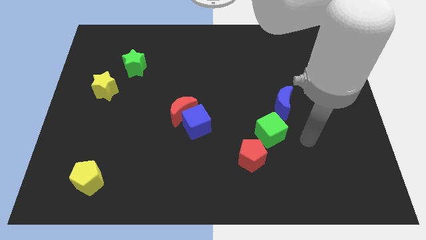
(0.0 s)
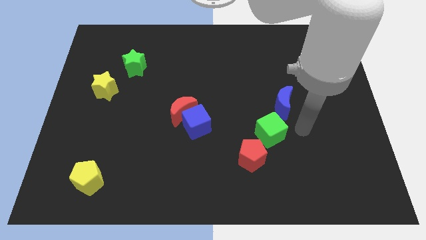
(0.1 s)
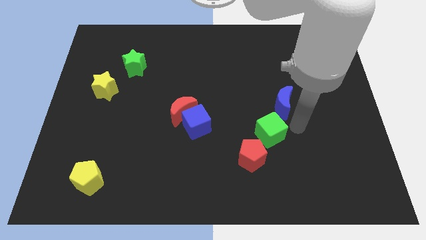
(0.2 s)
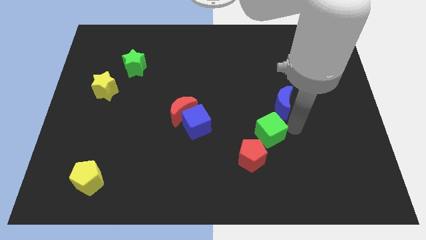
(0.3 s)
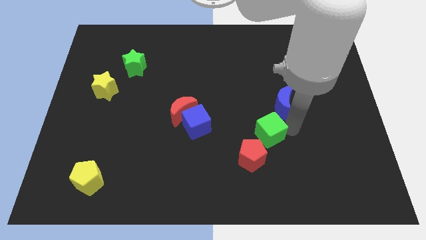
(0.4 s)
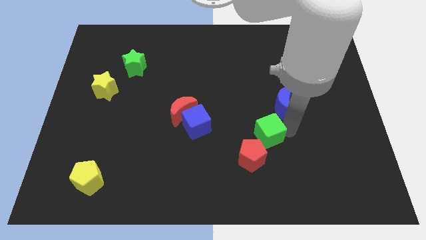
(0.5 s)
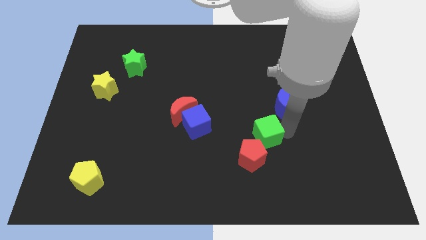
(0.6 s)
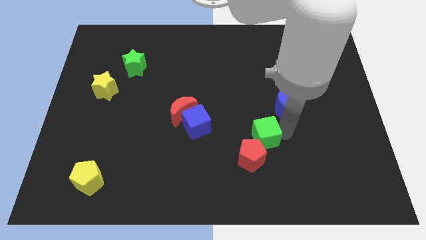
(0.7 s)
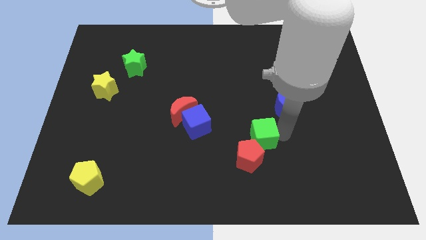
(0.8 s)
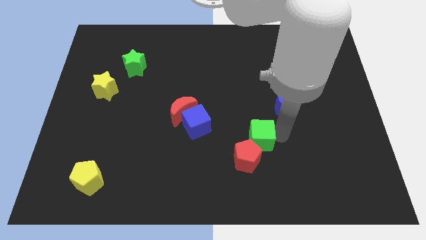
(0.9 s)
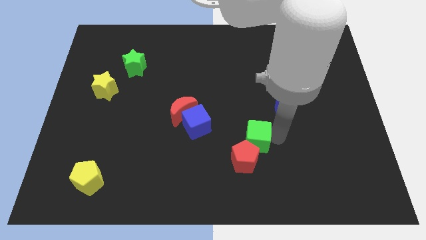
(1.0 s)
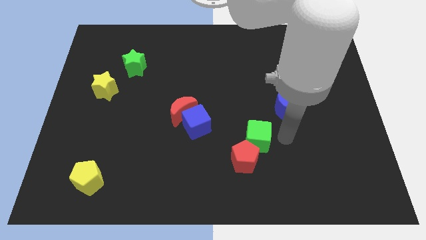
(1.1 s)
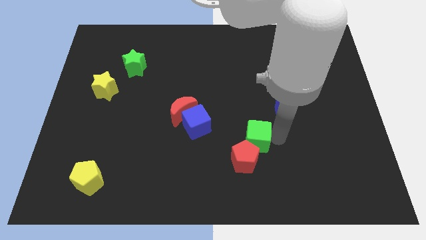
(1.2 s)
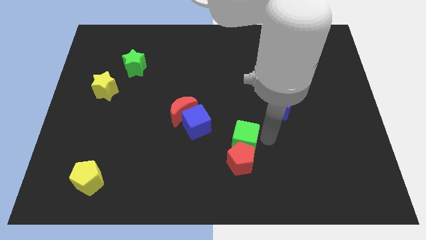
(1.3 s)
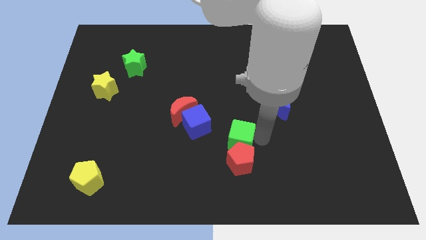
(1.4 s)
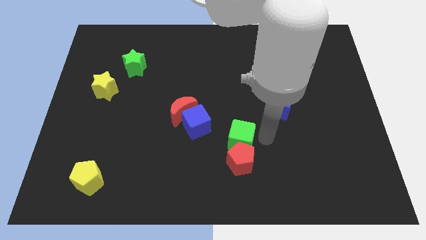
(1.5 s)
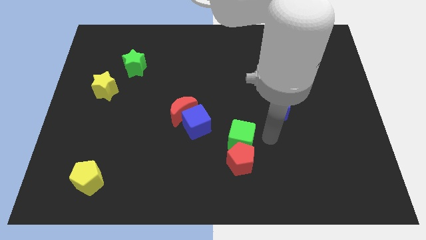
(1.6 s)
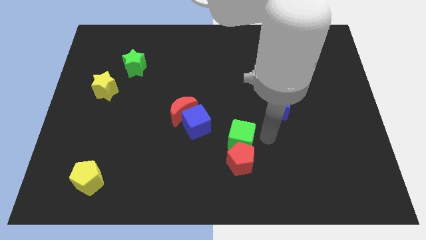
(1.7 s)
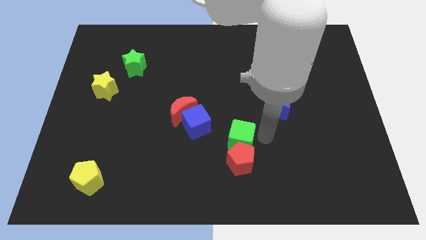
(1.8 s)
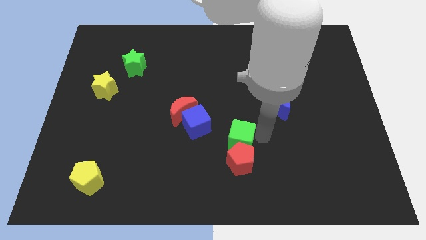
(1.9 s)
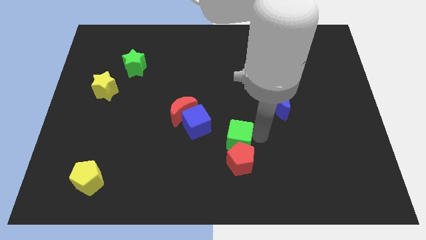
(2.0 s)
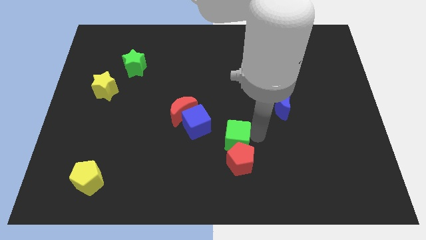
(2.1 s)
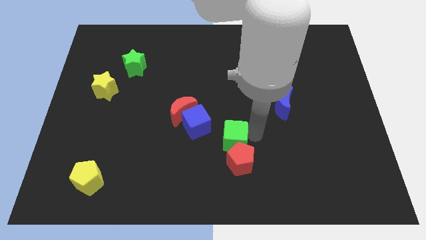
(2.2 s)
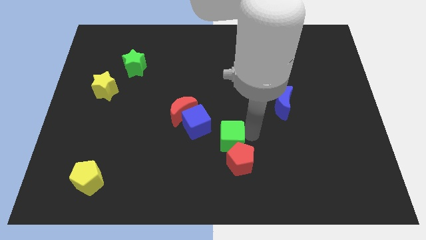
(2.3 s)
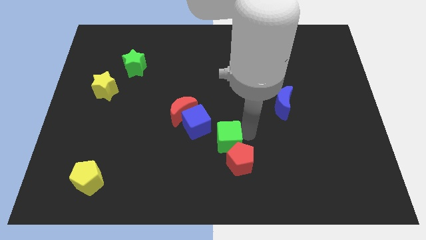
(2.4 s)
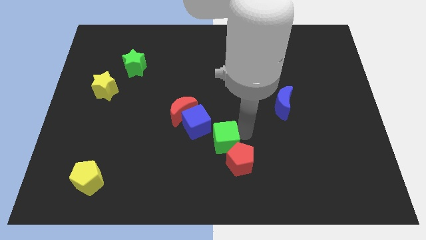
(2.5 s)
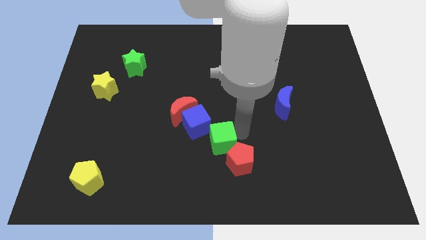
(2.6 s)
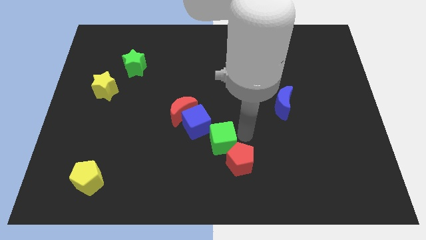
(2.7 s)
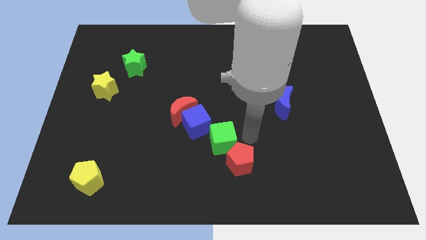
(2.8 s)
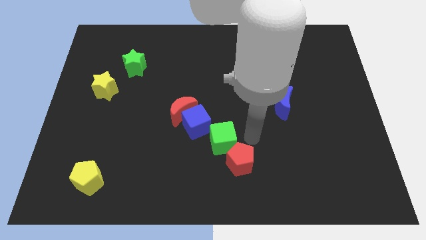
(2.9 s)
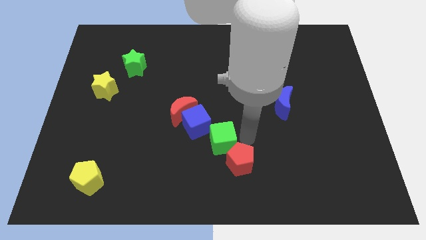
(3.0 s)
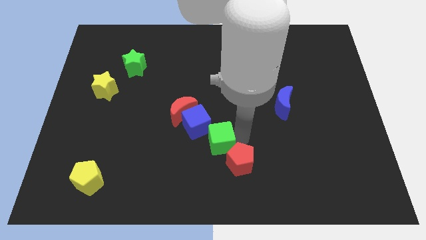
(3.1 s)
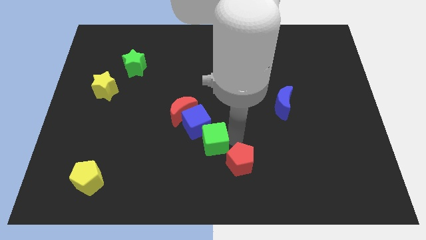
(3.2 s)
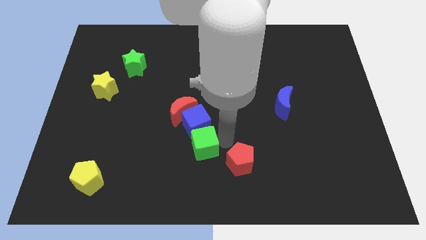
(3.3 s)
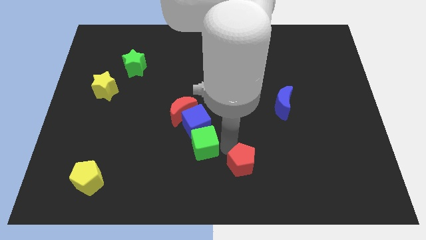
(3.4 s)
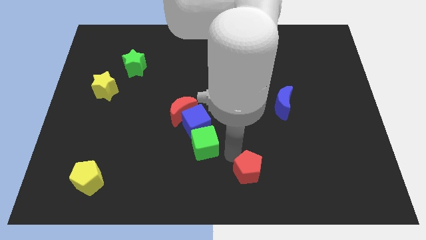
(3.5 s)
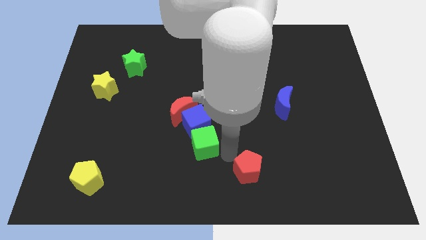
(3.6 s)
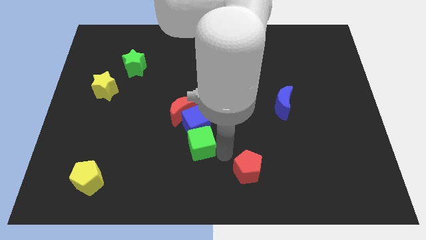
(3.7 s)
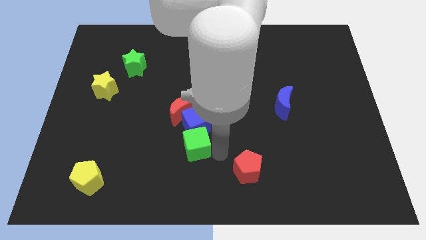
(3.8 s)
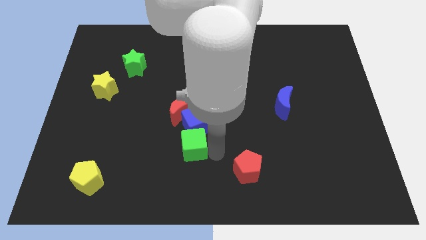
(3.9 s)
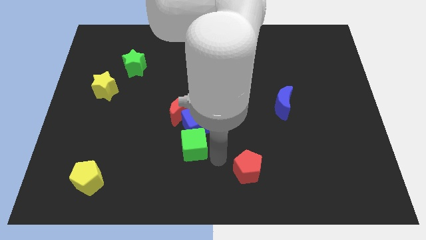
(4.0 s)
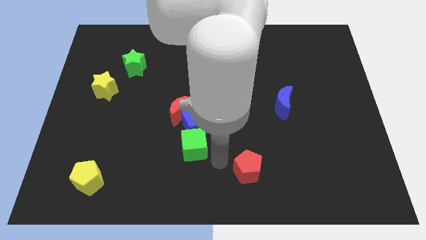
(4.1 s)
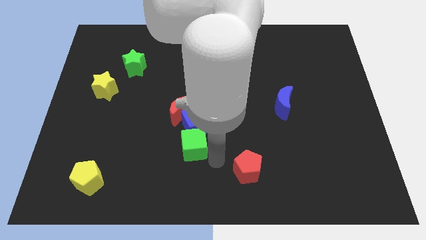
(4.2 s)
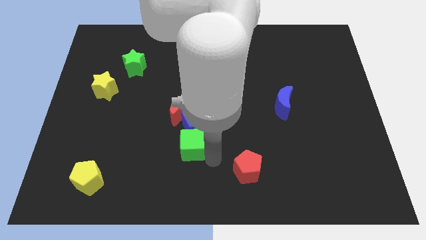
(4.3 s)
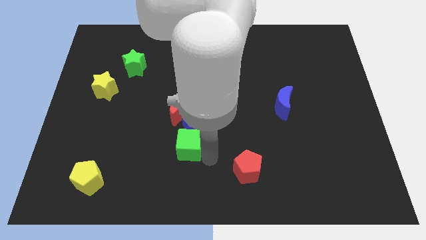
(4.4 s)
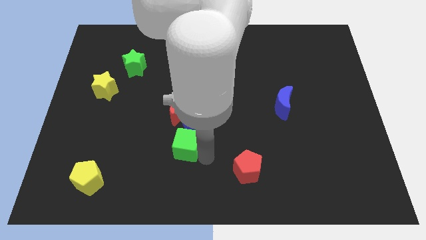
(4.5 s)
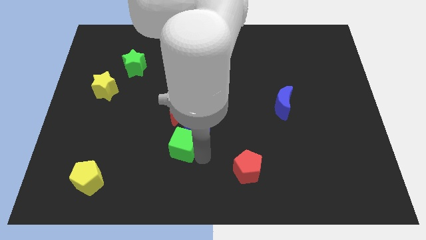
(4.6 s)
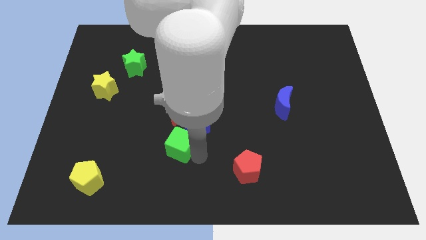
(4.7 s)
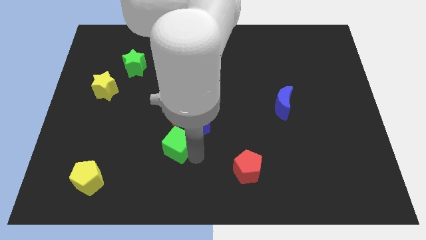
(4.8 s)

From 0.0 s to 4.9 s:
slide the green cube to the left

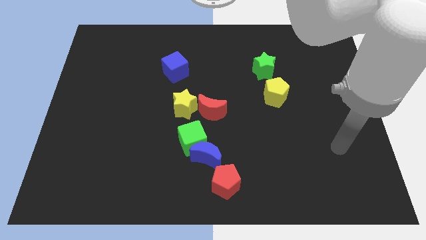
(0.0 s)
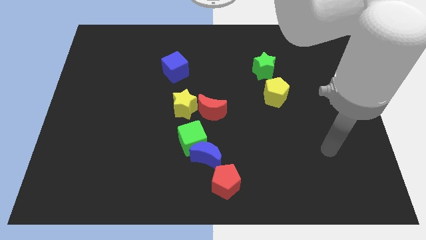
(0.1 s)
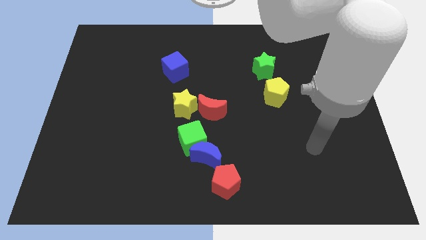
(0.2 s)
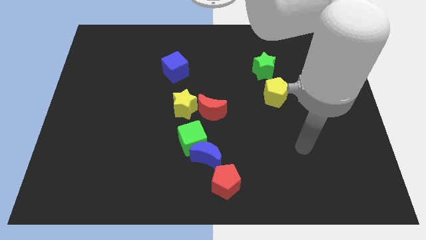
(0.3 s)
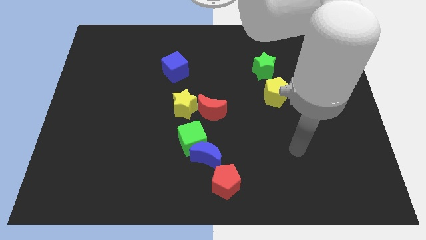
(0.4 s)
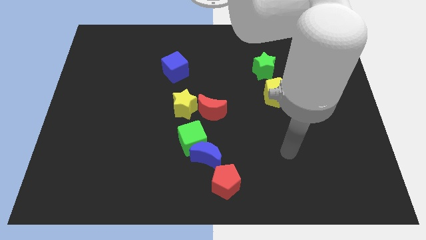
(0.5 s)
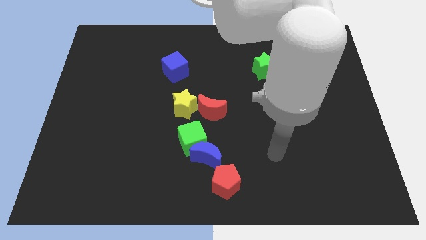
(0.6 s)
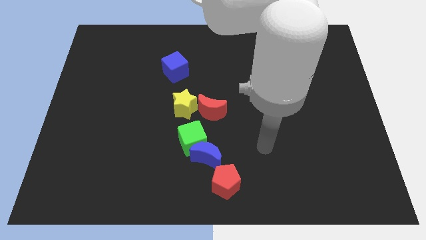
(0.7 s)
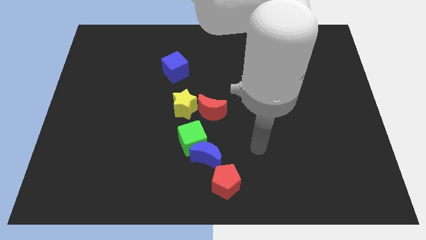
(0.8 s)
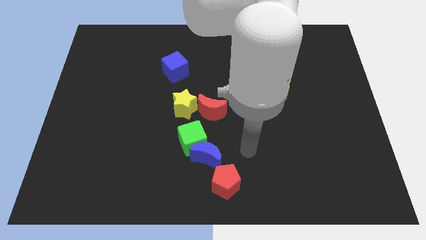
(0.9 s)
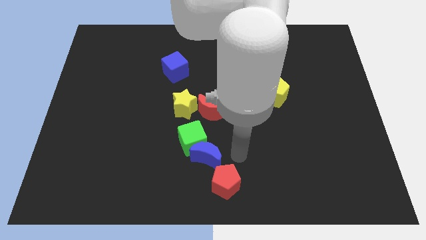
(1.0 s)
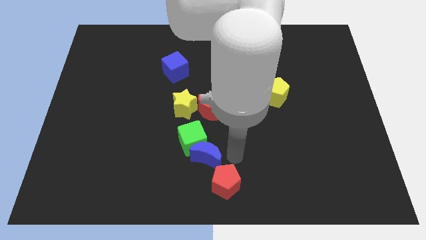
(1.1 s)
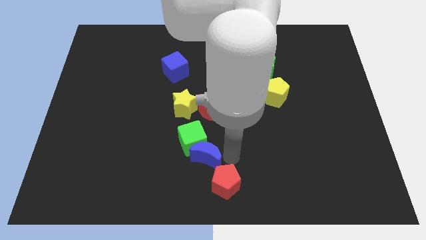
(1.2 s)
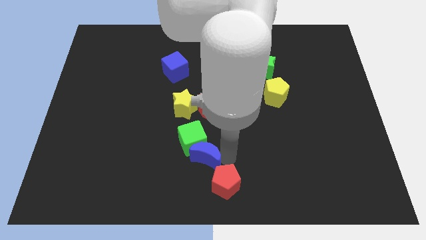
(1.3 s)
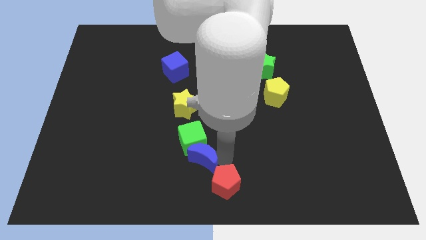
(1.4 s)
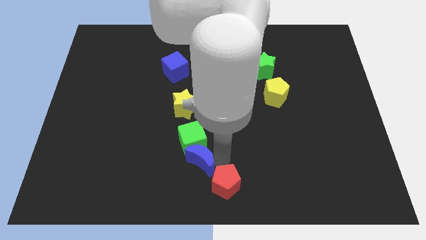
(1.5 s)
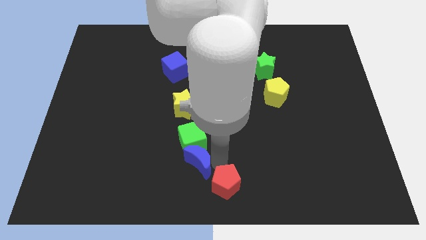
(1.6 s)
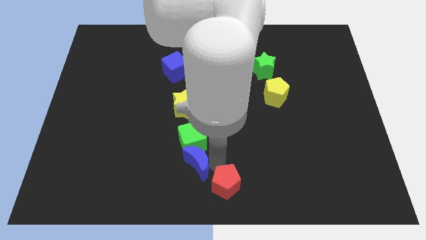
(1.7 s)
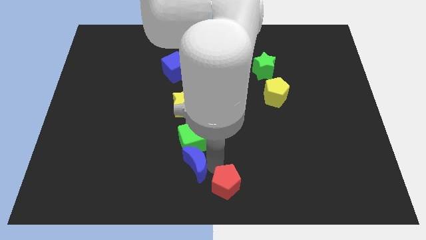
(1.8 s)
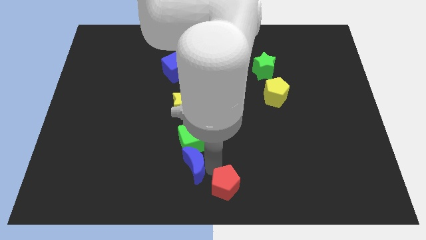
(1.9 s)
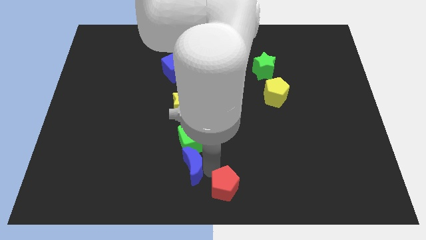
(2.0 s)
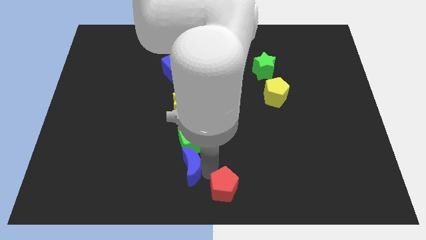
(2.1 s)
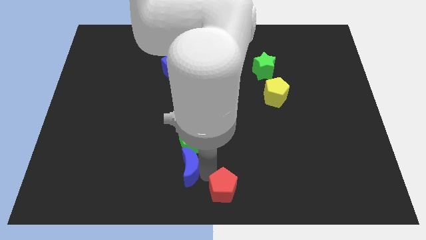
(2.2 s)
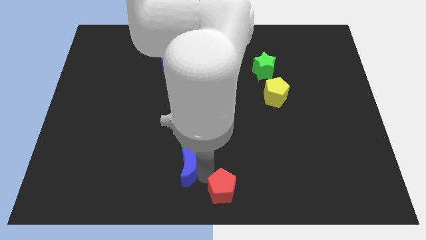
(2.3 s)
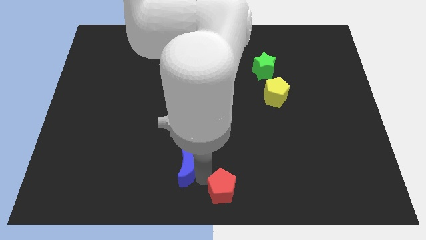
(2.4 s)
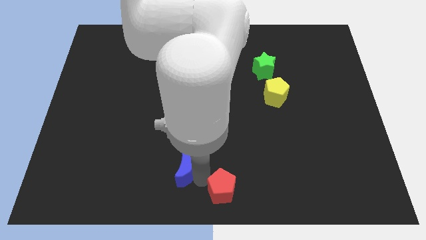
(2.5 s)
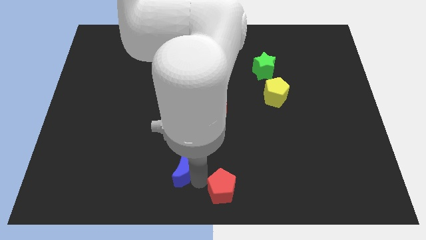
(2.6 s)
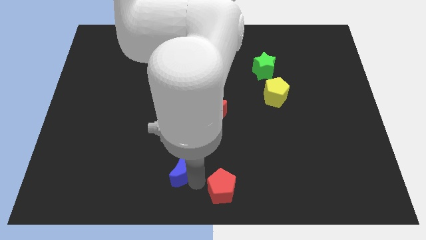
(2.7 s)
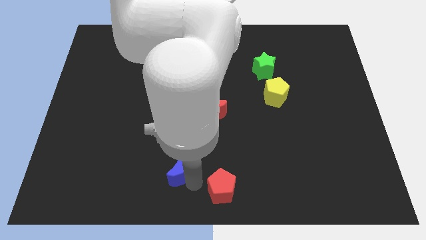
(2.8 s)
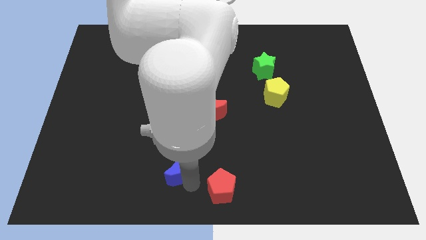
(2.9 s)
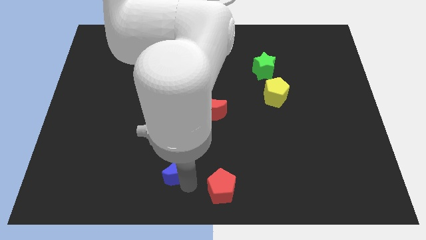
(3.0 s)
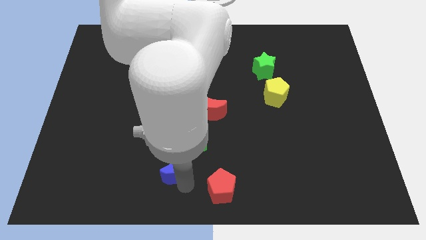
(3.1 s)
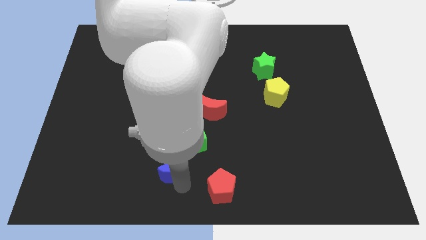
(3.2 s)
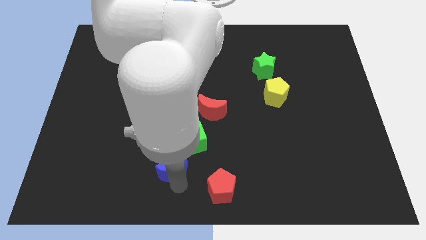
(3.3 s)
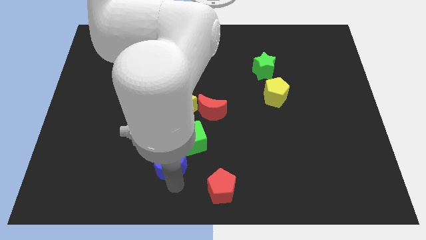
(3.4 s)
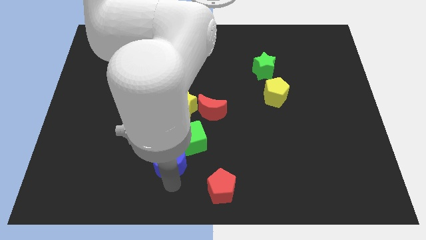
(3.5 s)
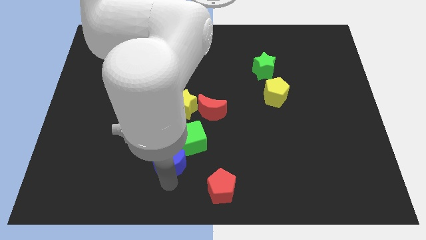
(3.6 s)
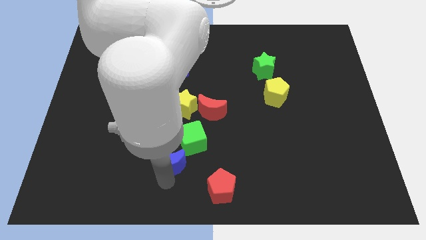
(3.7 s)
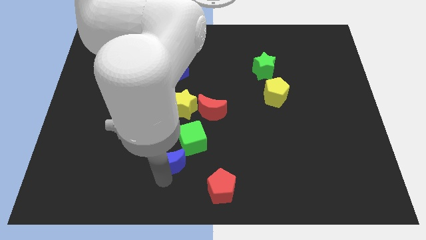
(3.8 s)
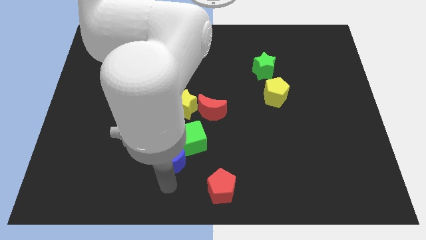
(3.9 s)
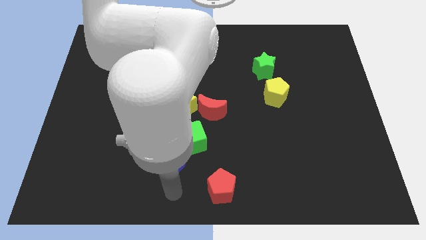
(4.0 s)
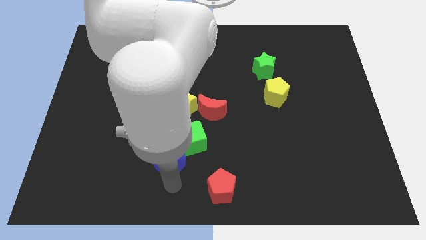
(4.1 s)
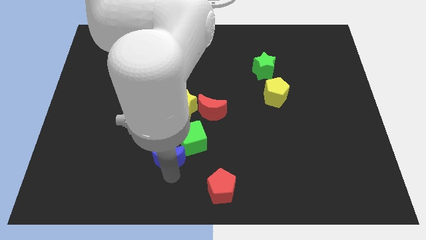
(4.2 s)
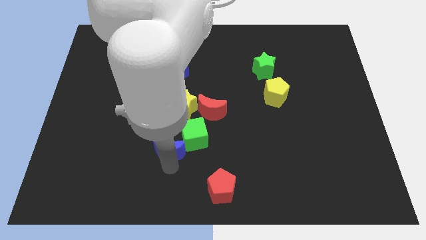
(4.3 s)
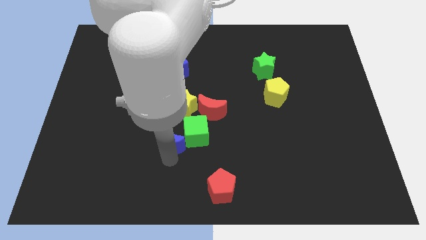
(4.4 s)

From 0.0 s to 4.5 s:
push the blue moon upwards and left a little bit
